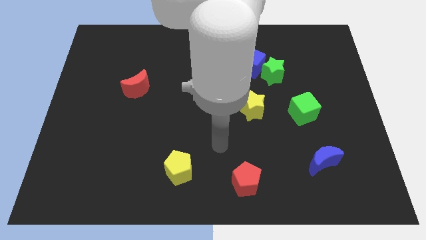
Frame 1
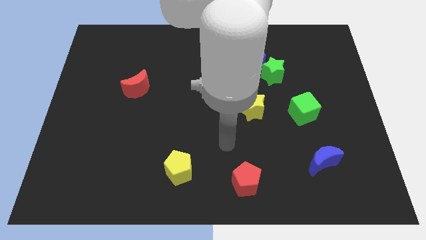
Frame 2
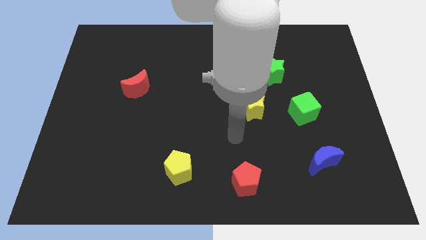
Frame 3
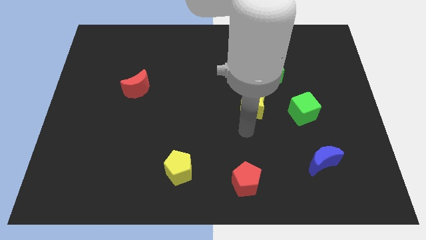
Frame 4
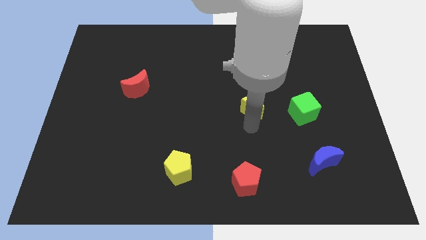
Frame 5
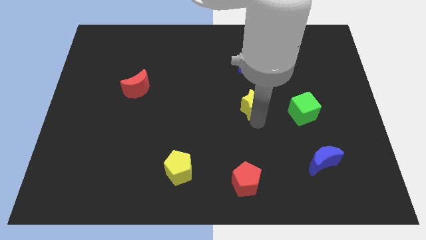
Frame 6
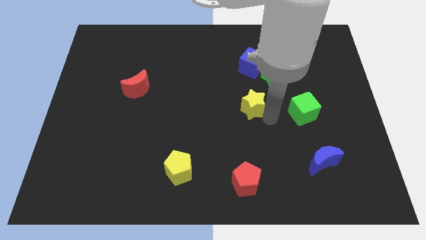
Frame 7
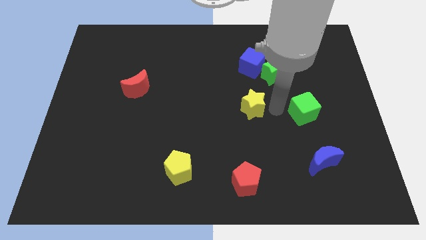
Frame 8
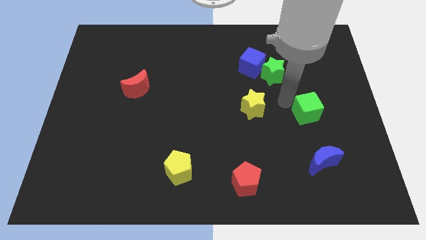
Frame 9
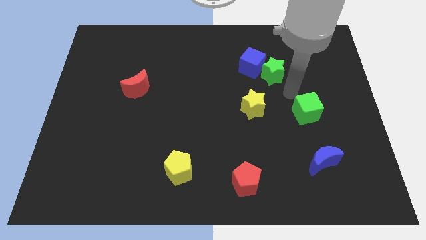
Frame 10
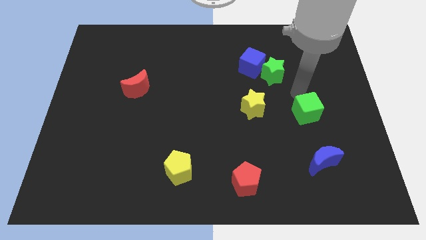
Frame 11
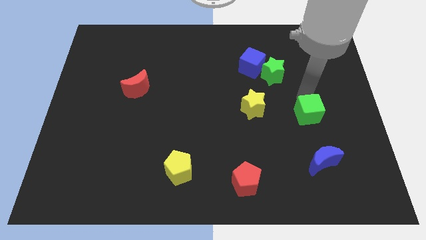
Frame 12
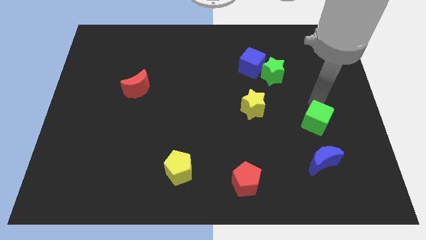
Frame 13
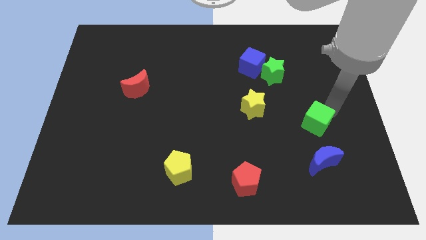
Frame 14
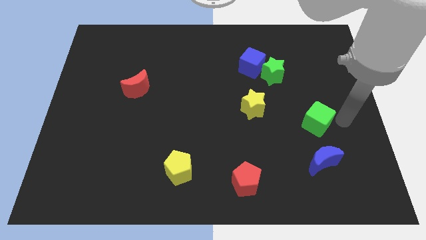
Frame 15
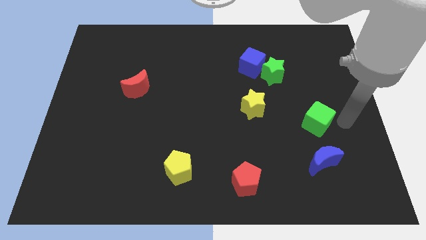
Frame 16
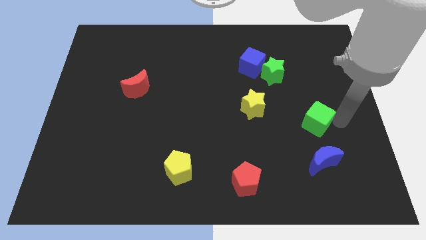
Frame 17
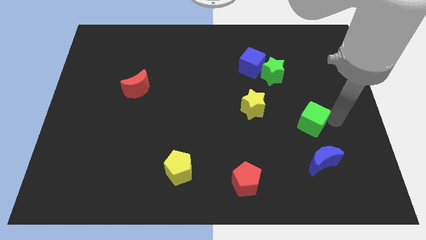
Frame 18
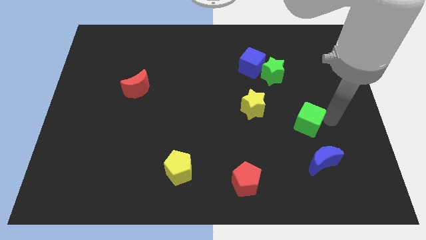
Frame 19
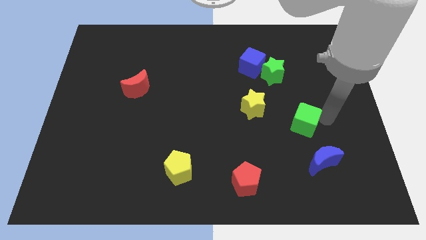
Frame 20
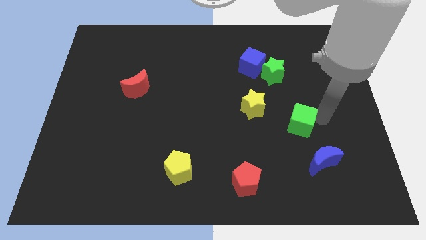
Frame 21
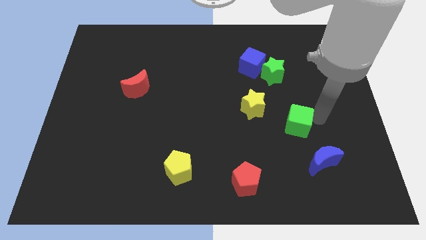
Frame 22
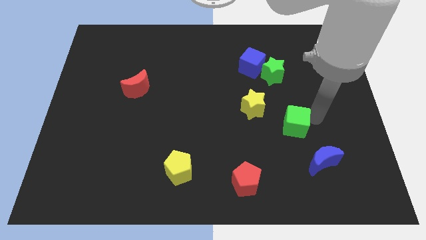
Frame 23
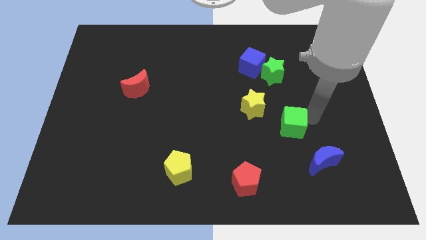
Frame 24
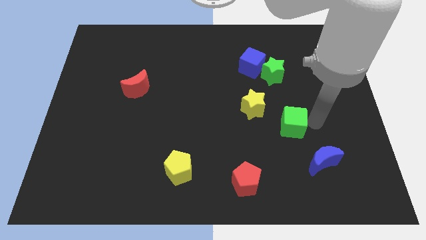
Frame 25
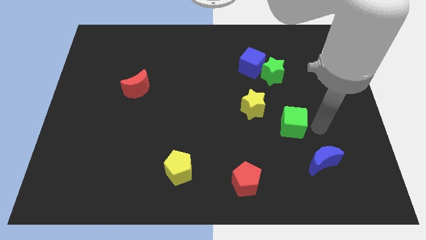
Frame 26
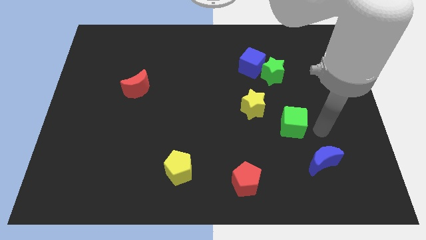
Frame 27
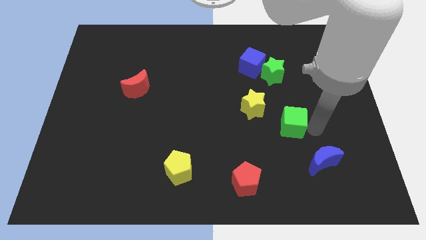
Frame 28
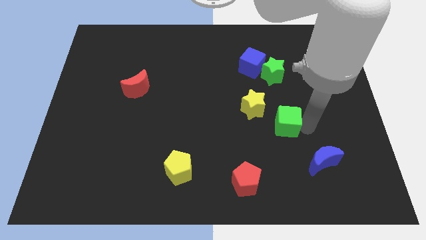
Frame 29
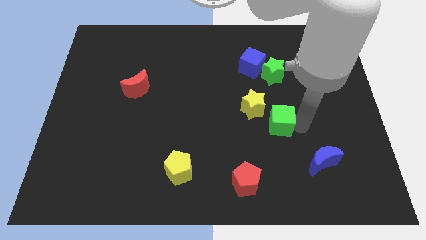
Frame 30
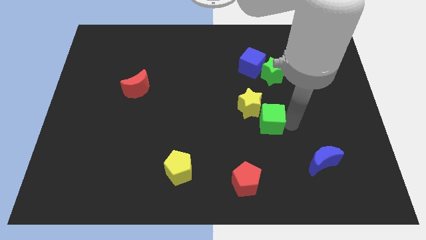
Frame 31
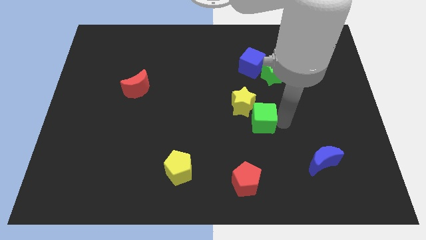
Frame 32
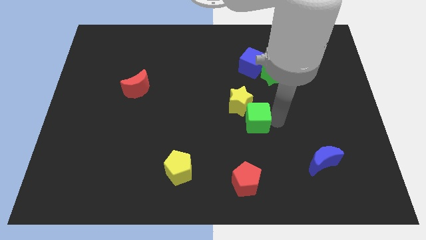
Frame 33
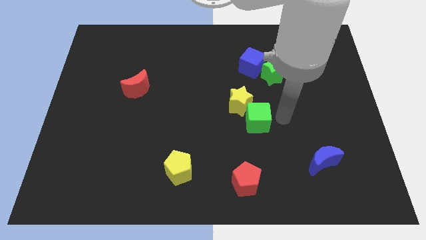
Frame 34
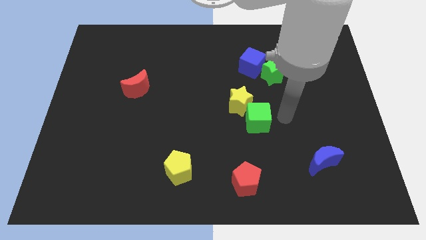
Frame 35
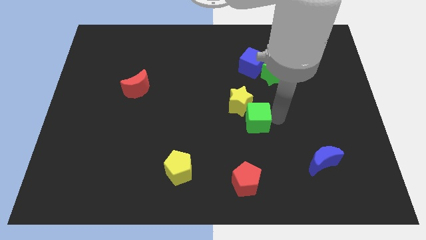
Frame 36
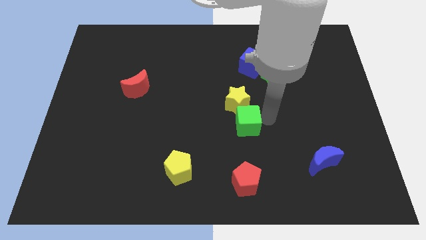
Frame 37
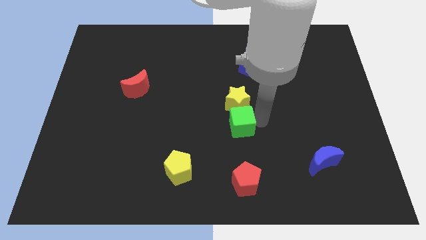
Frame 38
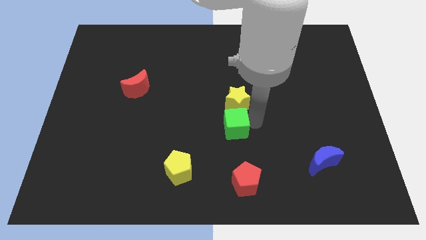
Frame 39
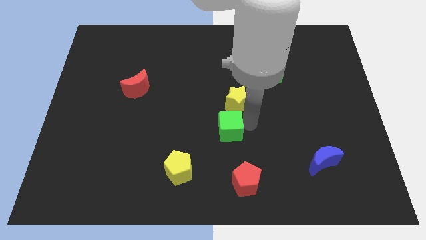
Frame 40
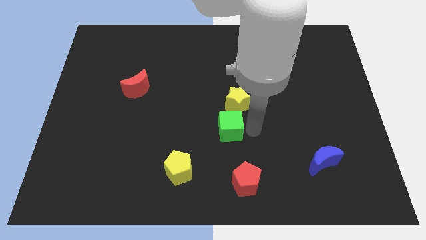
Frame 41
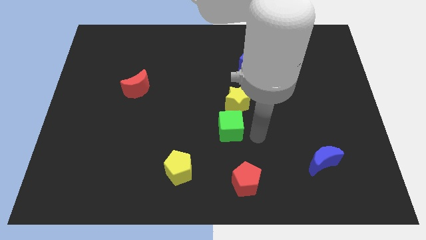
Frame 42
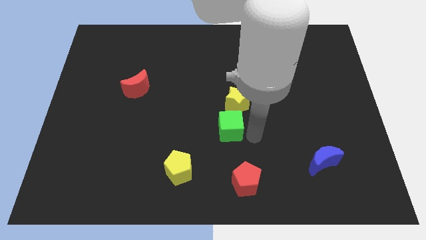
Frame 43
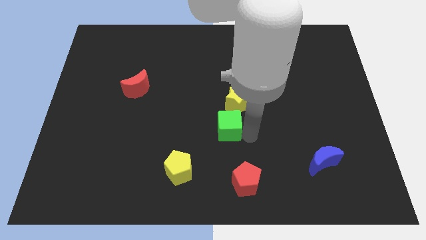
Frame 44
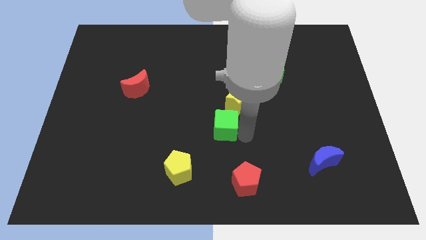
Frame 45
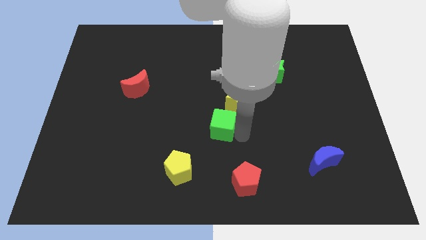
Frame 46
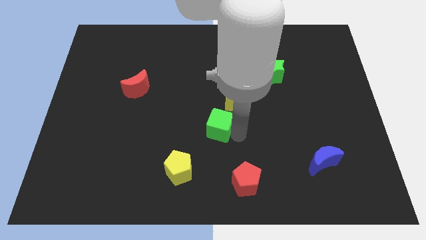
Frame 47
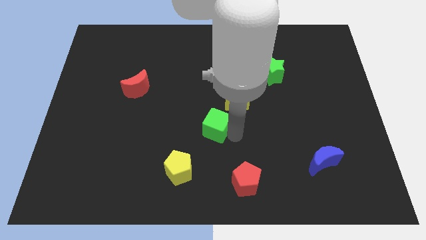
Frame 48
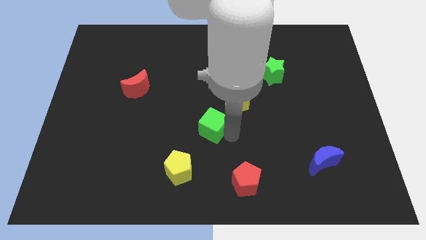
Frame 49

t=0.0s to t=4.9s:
slide the green cube to the left

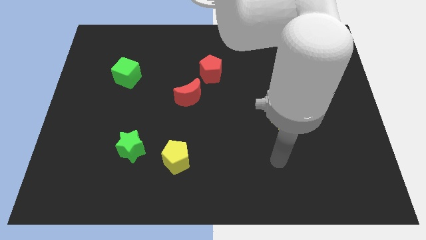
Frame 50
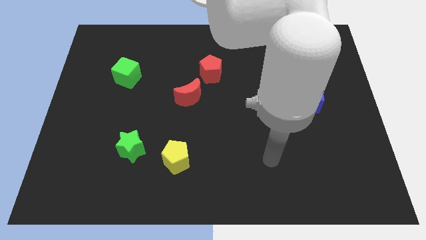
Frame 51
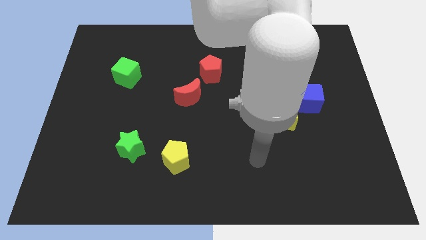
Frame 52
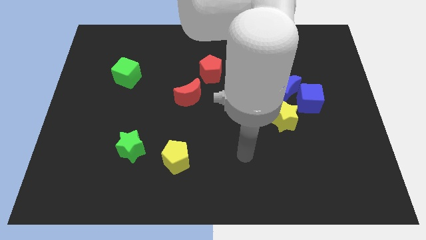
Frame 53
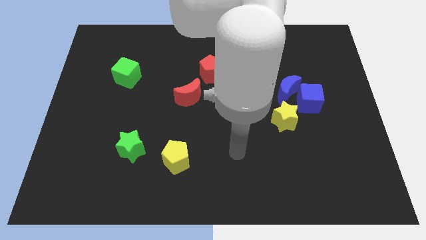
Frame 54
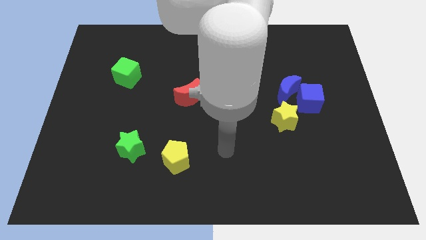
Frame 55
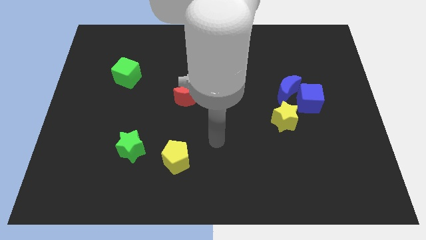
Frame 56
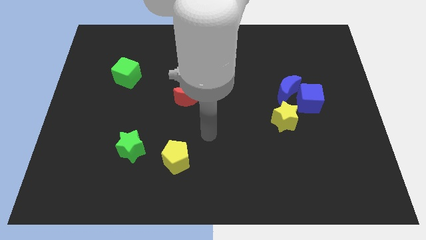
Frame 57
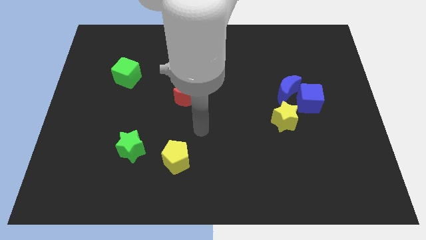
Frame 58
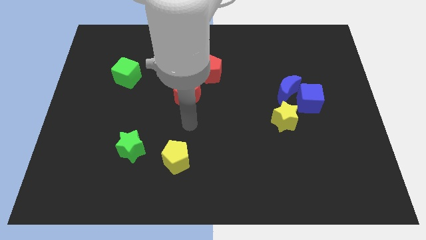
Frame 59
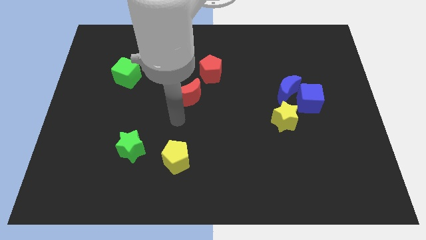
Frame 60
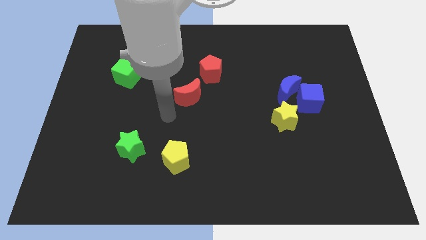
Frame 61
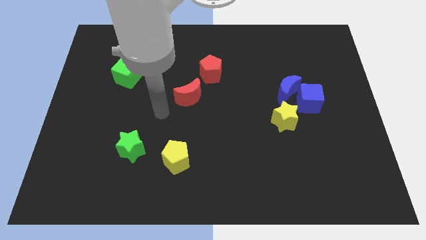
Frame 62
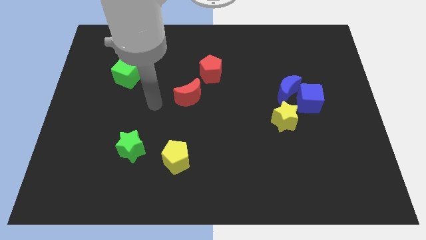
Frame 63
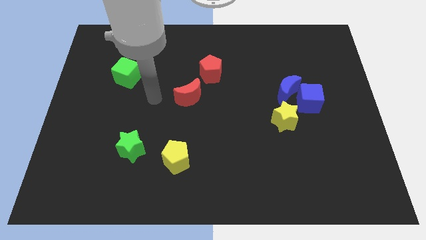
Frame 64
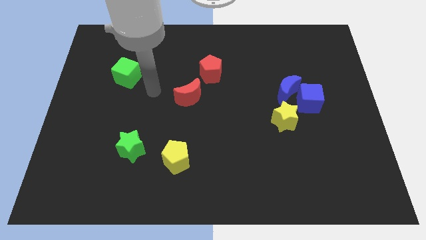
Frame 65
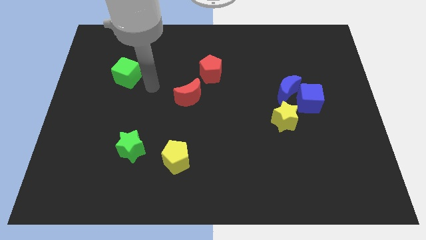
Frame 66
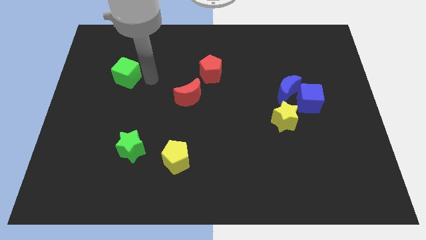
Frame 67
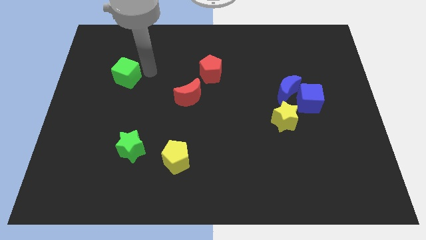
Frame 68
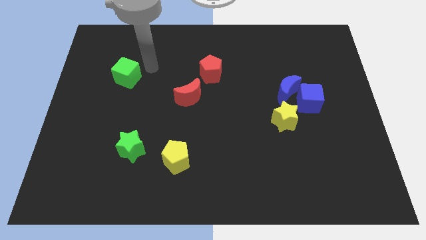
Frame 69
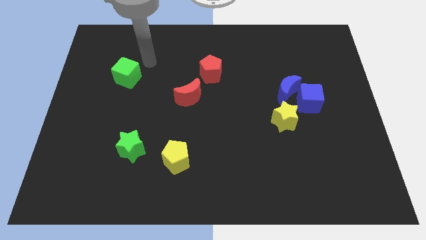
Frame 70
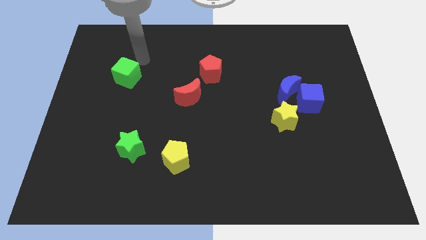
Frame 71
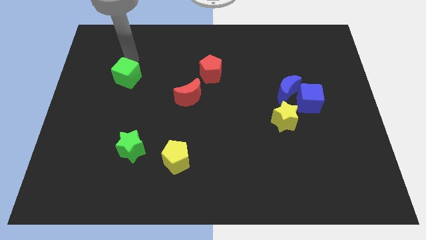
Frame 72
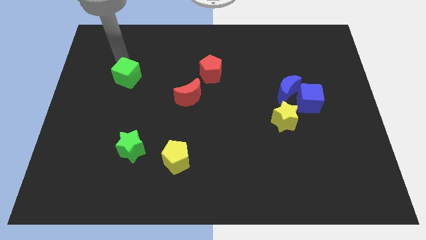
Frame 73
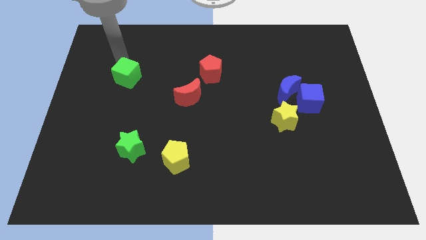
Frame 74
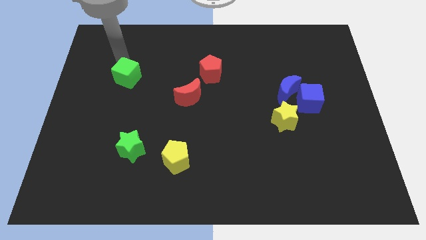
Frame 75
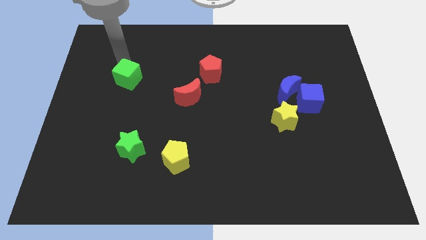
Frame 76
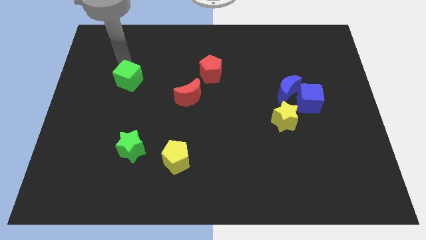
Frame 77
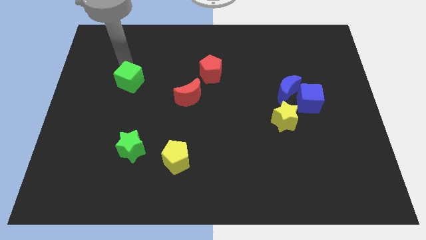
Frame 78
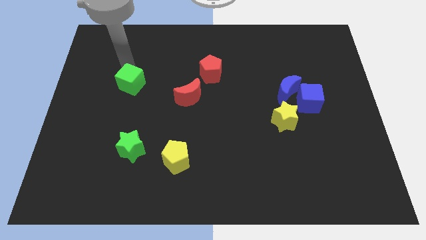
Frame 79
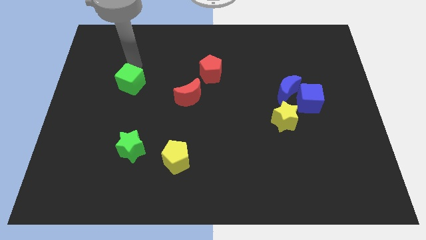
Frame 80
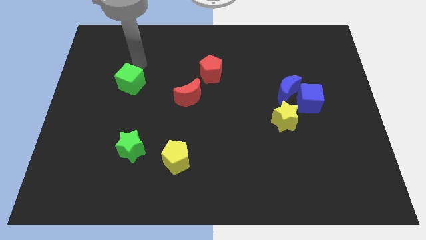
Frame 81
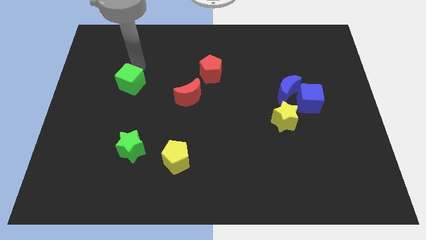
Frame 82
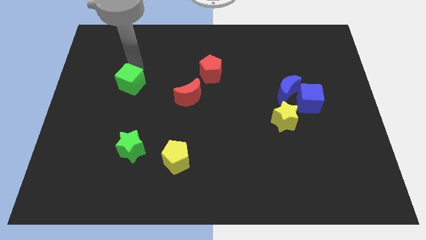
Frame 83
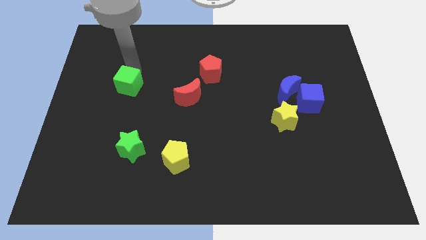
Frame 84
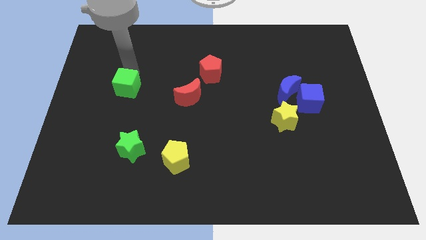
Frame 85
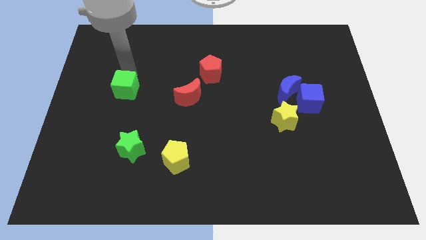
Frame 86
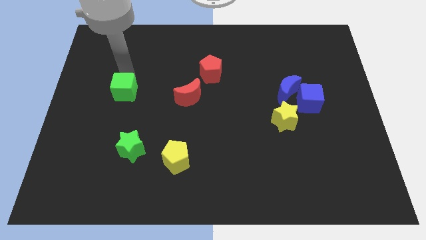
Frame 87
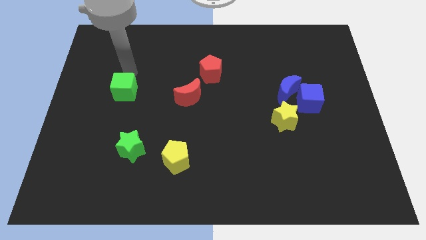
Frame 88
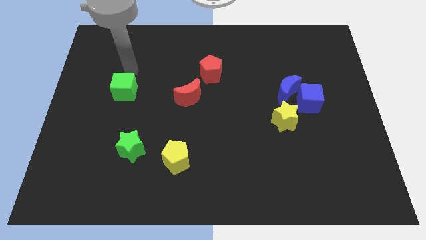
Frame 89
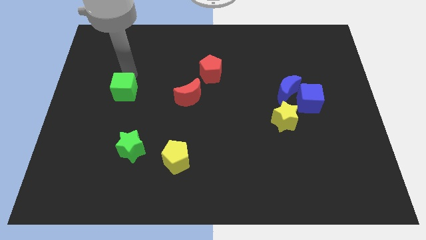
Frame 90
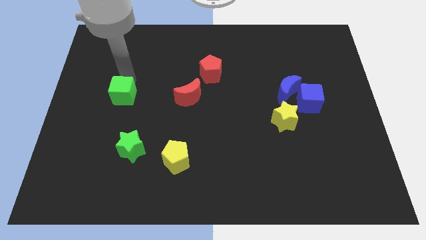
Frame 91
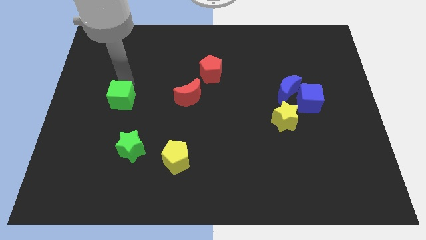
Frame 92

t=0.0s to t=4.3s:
slightly push the green cube down
